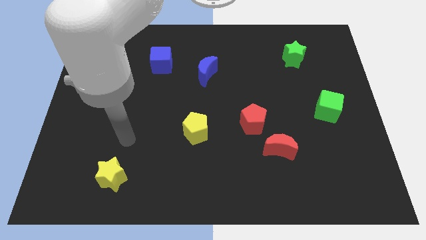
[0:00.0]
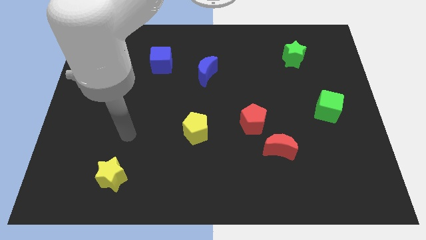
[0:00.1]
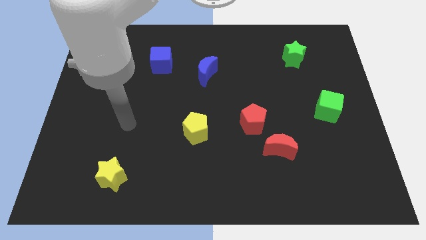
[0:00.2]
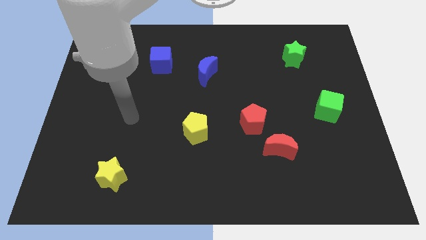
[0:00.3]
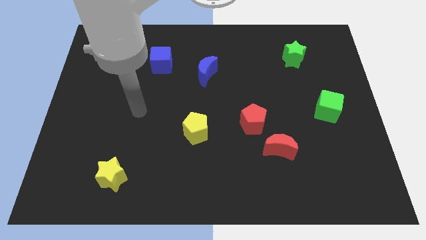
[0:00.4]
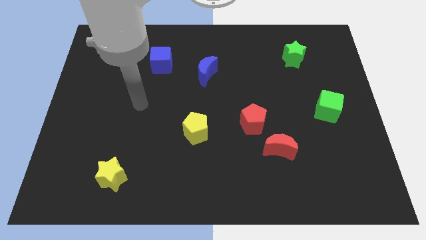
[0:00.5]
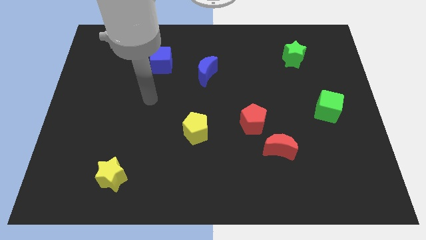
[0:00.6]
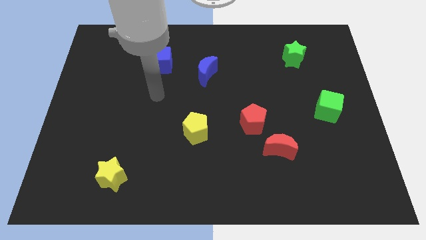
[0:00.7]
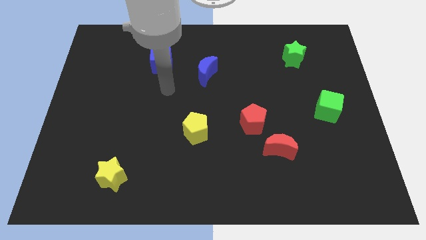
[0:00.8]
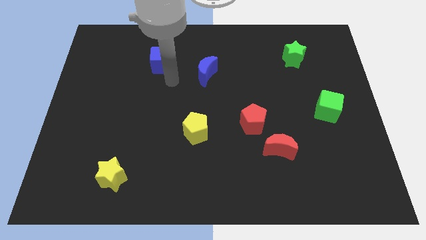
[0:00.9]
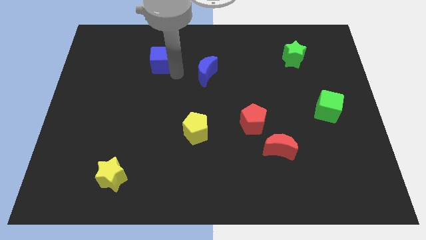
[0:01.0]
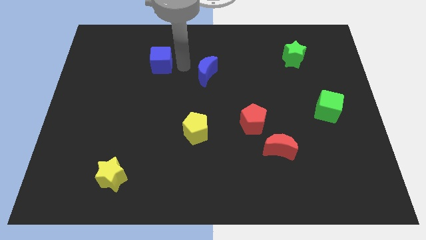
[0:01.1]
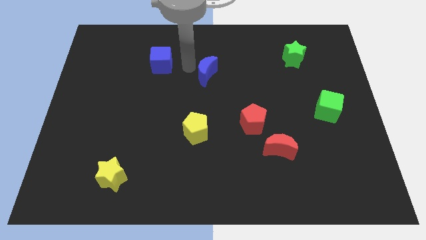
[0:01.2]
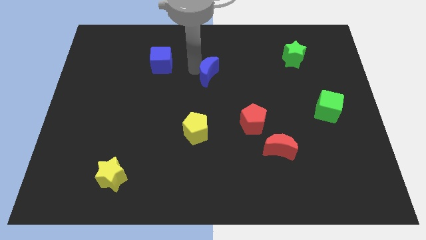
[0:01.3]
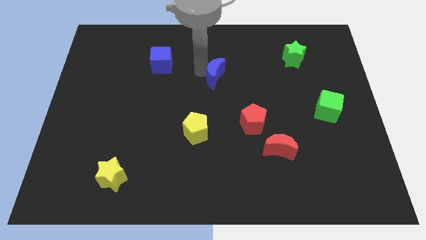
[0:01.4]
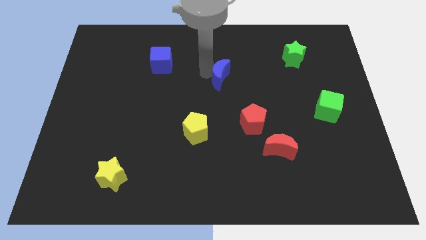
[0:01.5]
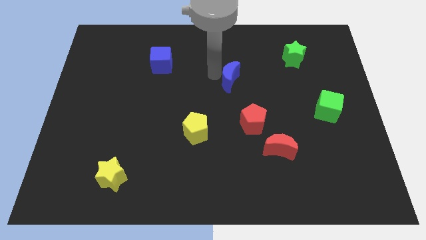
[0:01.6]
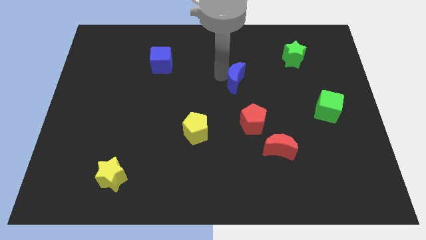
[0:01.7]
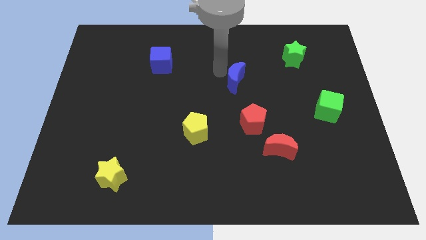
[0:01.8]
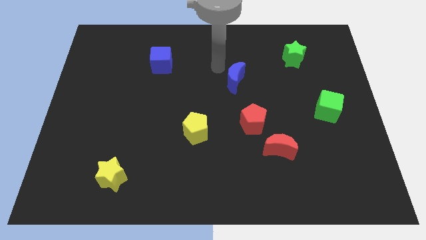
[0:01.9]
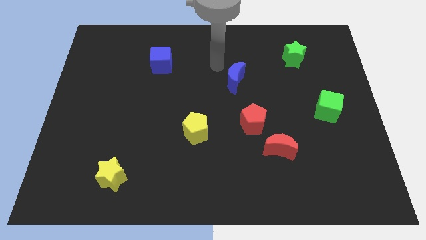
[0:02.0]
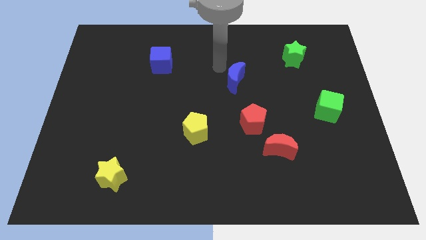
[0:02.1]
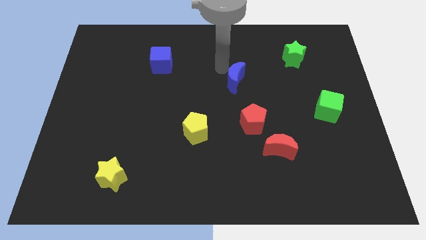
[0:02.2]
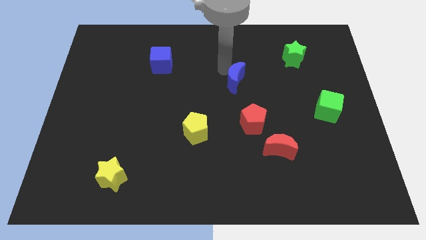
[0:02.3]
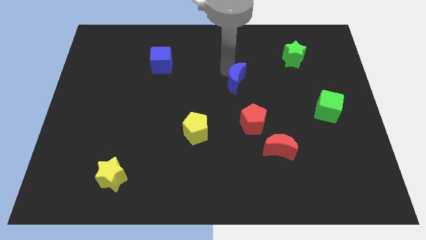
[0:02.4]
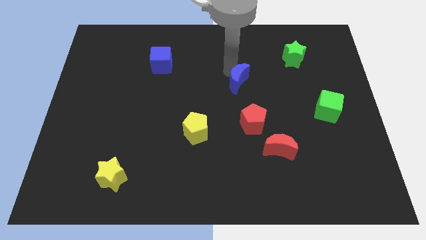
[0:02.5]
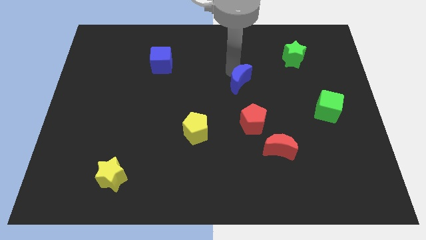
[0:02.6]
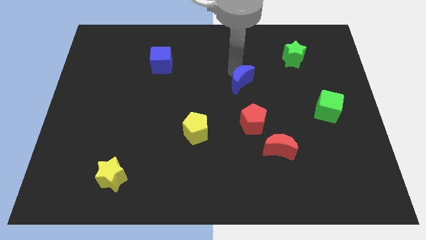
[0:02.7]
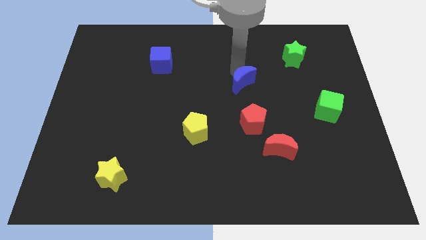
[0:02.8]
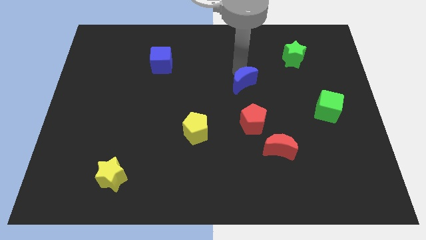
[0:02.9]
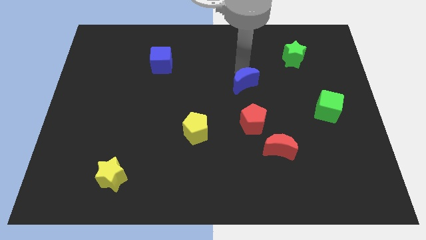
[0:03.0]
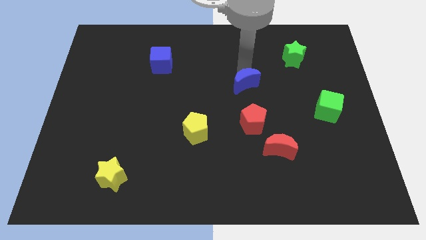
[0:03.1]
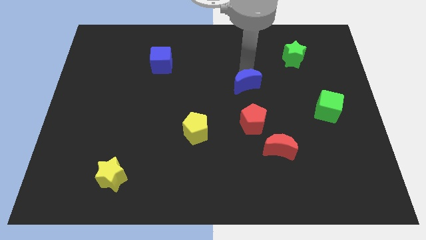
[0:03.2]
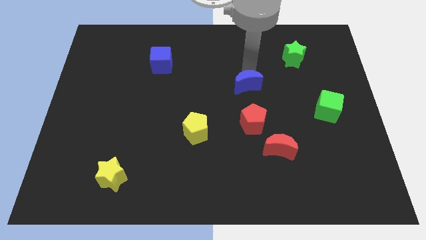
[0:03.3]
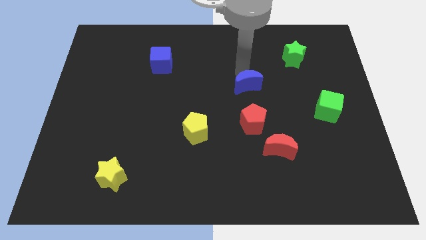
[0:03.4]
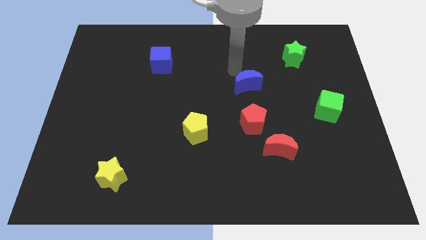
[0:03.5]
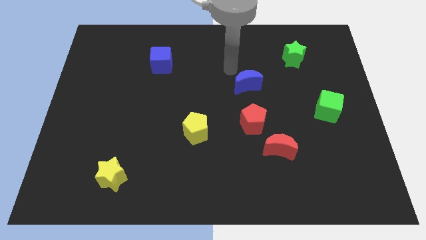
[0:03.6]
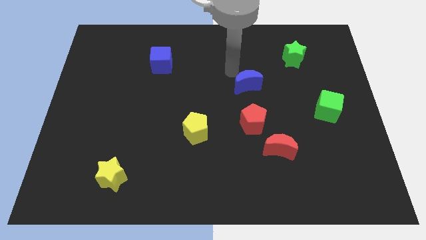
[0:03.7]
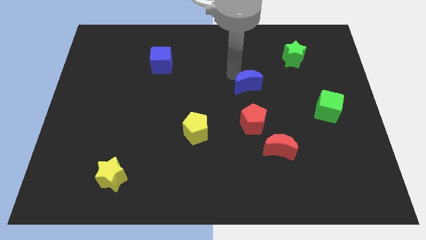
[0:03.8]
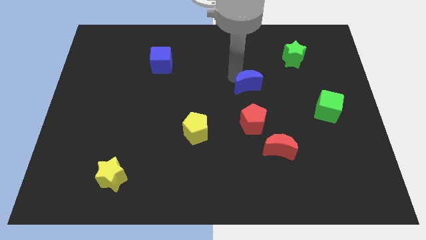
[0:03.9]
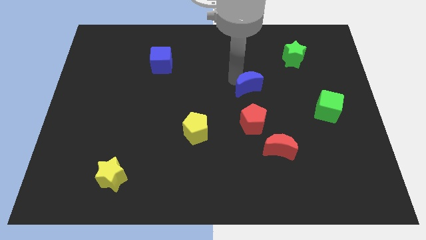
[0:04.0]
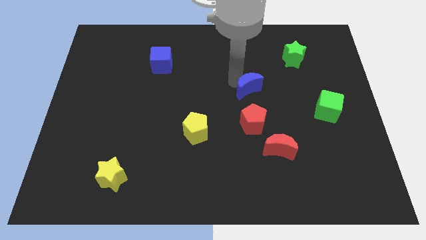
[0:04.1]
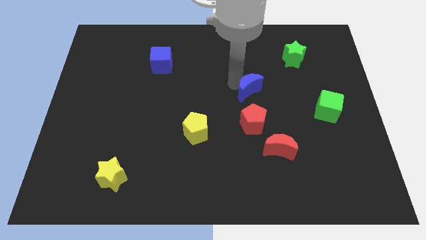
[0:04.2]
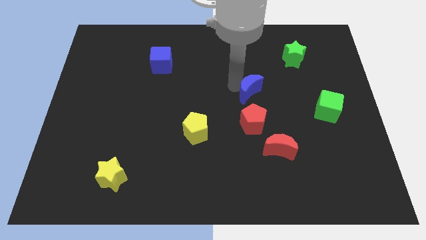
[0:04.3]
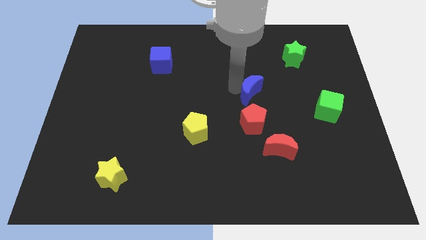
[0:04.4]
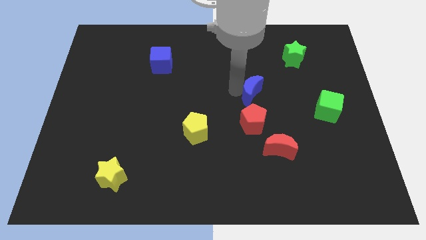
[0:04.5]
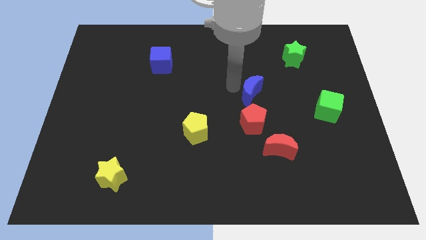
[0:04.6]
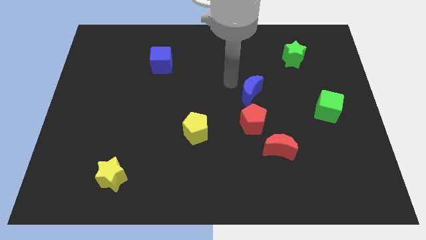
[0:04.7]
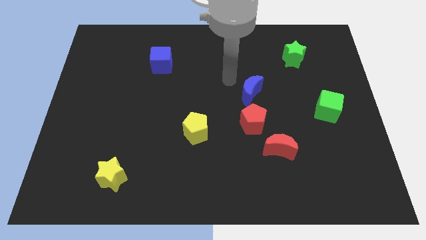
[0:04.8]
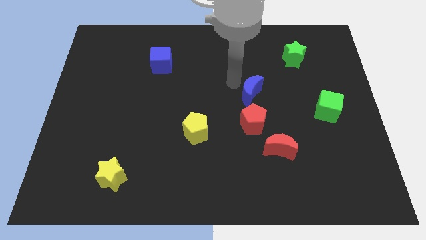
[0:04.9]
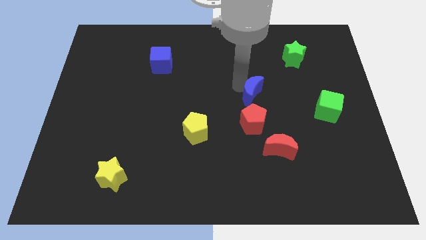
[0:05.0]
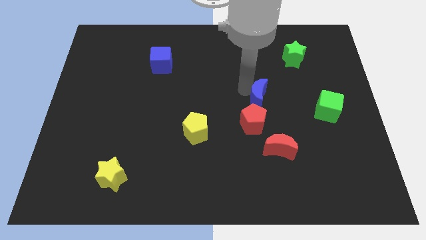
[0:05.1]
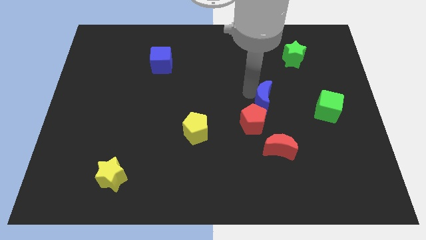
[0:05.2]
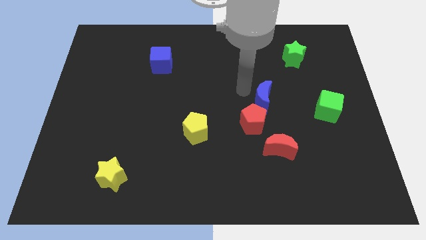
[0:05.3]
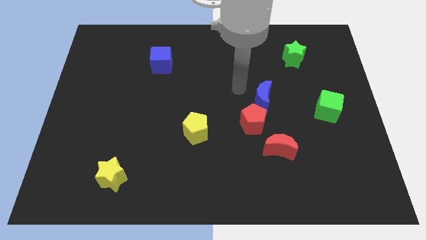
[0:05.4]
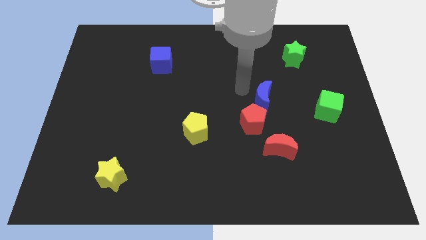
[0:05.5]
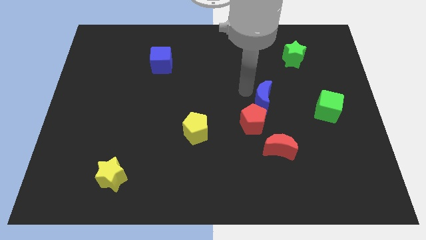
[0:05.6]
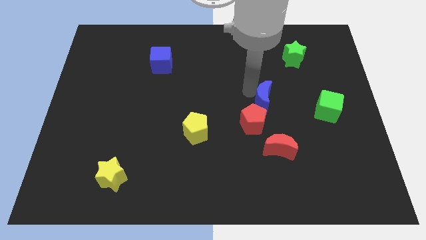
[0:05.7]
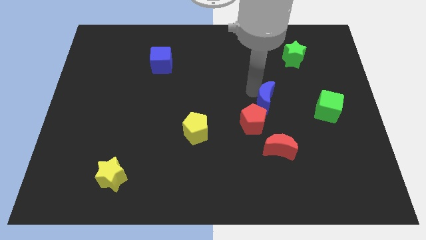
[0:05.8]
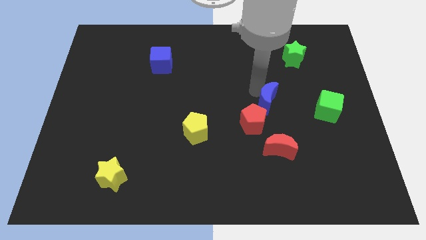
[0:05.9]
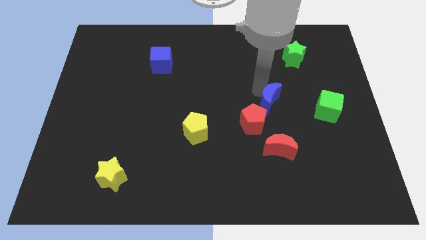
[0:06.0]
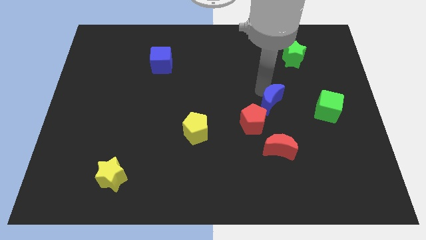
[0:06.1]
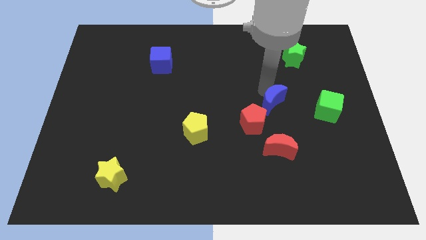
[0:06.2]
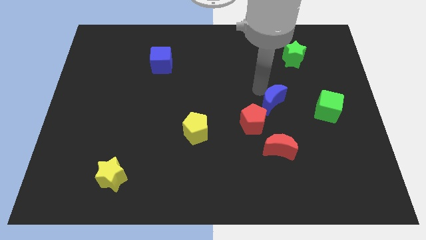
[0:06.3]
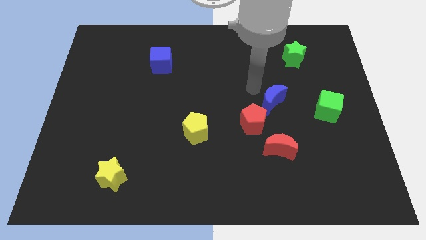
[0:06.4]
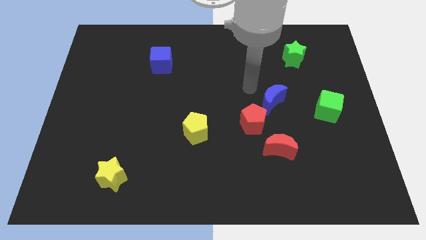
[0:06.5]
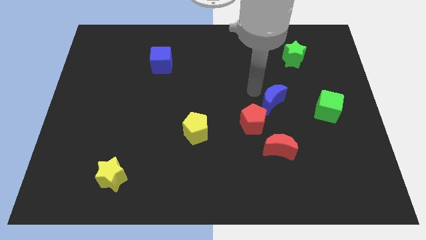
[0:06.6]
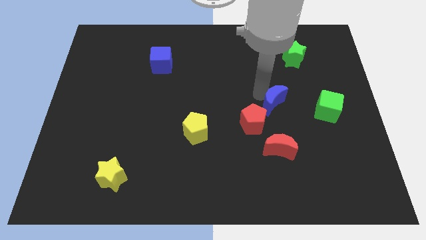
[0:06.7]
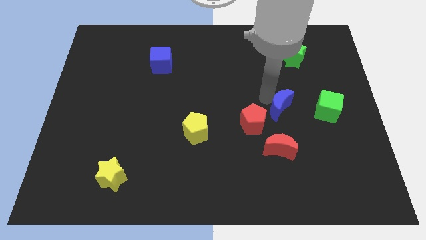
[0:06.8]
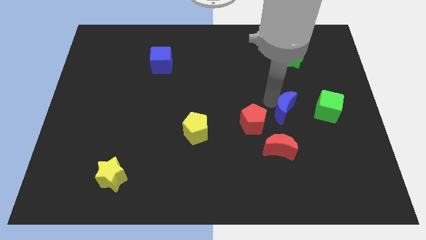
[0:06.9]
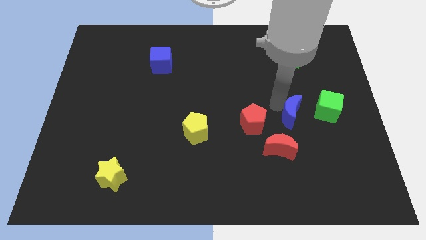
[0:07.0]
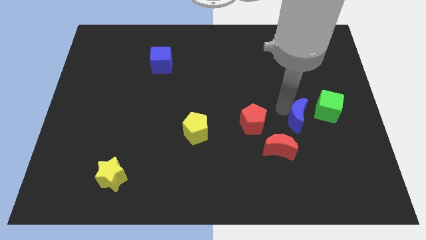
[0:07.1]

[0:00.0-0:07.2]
slide the blue moon to the bottom left of the green cube
